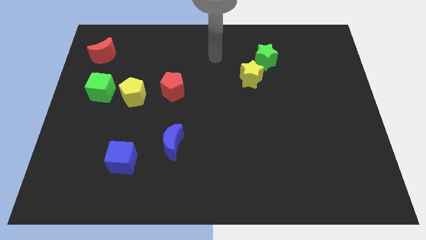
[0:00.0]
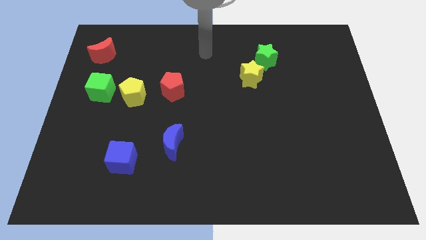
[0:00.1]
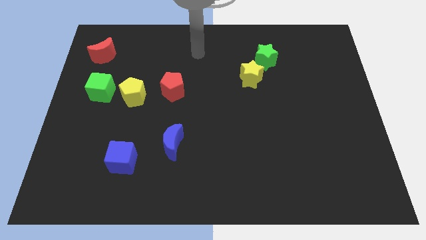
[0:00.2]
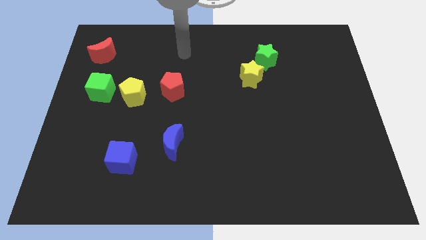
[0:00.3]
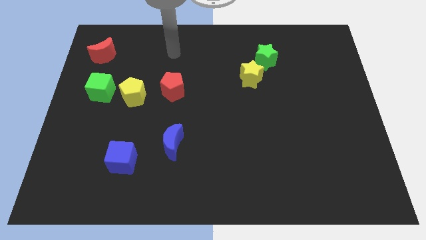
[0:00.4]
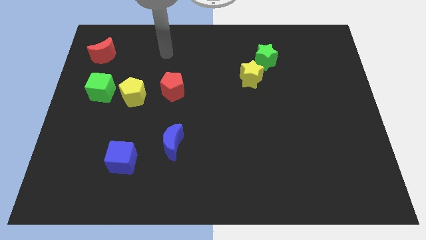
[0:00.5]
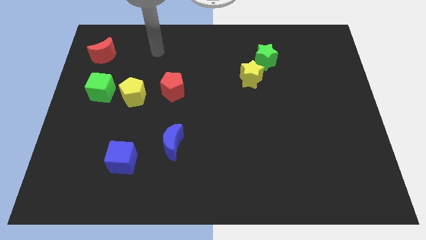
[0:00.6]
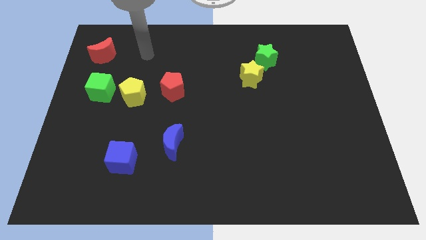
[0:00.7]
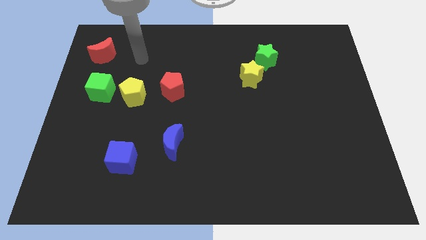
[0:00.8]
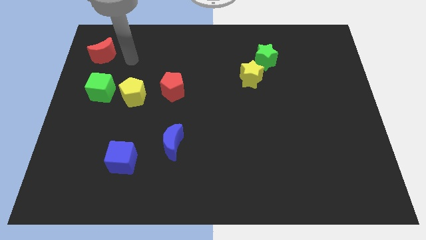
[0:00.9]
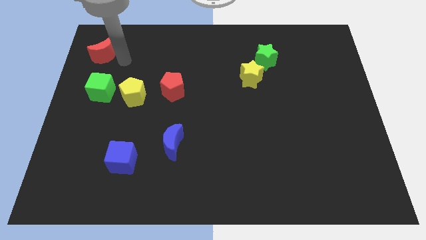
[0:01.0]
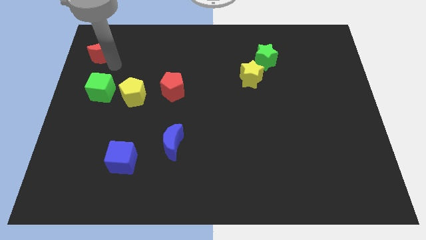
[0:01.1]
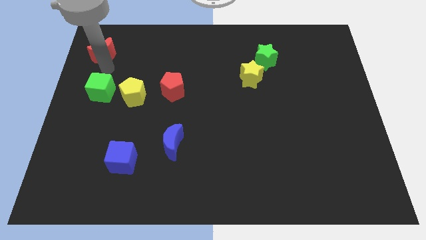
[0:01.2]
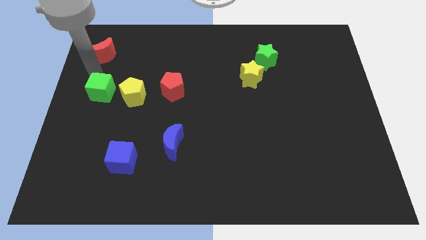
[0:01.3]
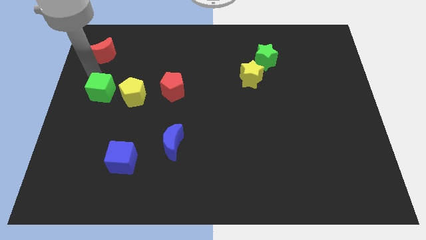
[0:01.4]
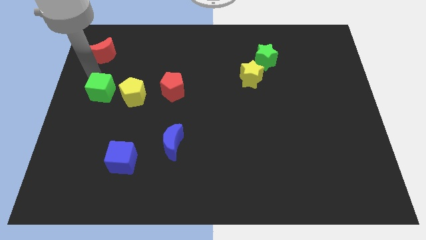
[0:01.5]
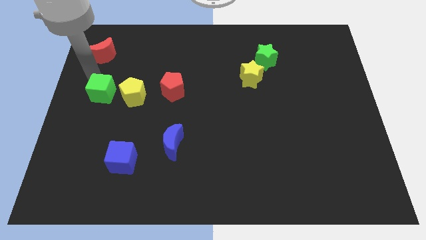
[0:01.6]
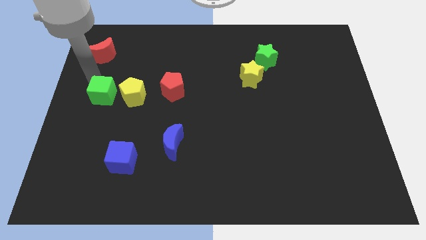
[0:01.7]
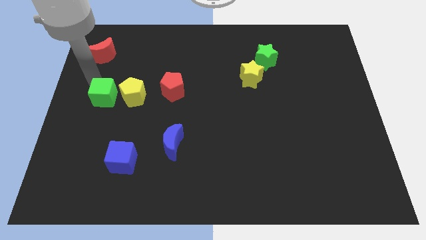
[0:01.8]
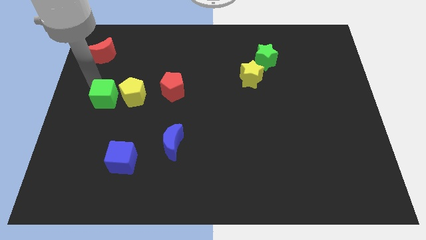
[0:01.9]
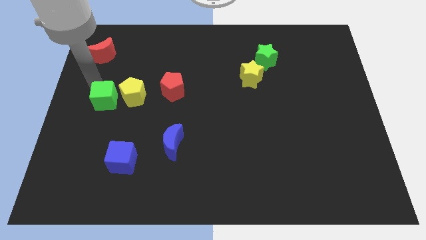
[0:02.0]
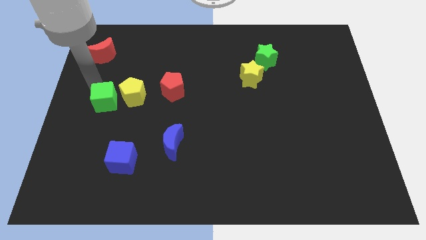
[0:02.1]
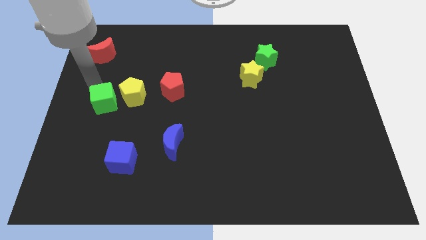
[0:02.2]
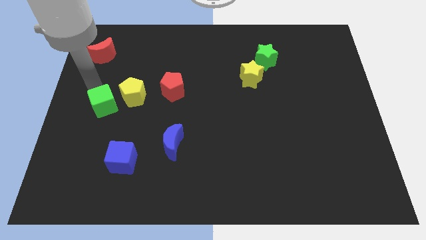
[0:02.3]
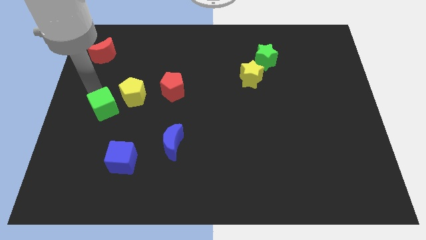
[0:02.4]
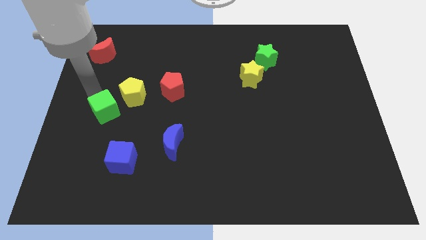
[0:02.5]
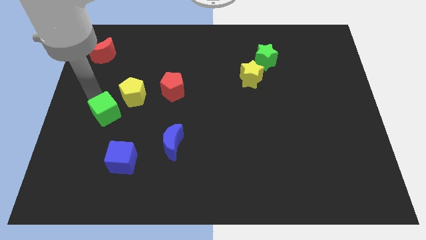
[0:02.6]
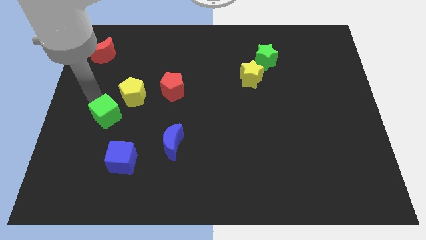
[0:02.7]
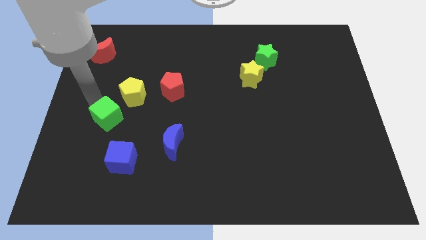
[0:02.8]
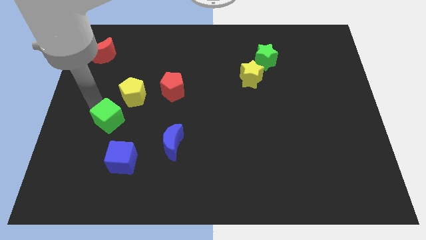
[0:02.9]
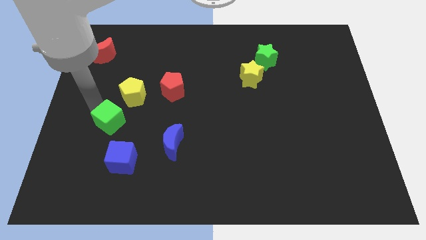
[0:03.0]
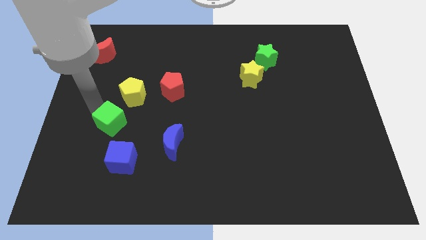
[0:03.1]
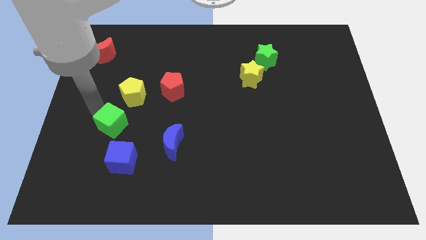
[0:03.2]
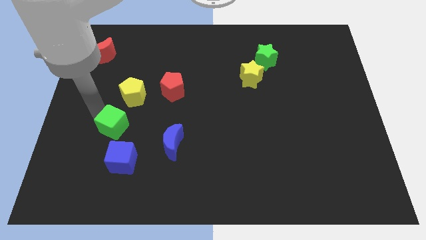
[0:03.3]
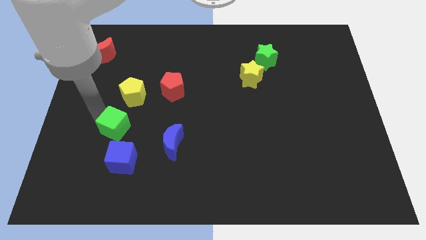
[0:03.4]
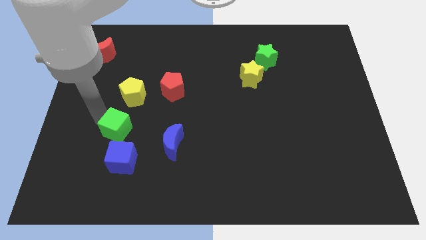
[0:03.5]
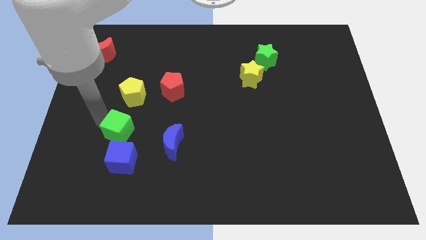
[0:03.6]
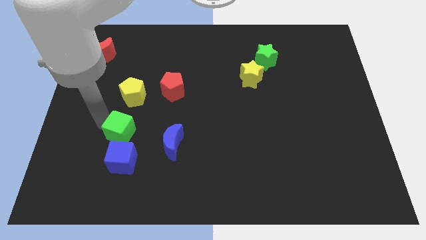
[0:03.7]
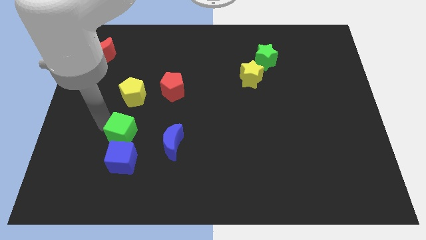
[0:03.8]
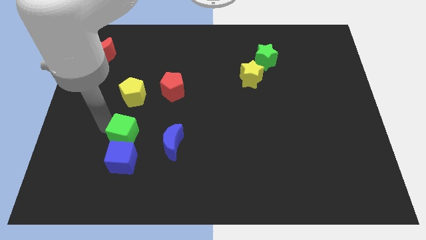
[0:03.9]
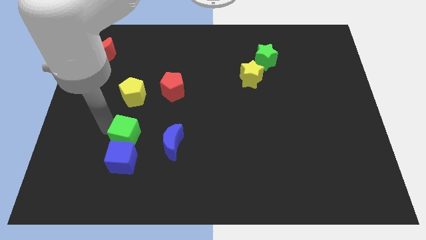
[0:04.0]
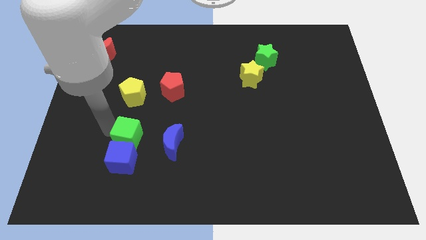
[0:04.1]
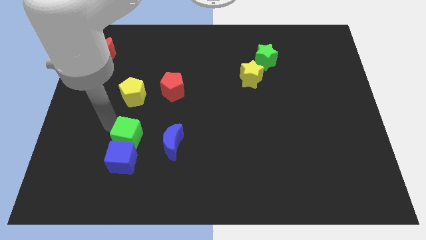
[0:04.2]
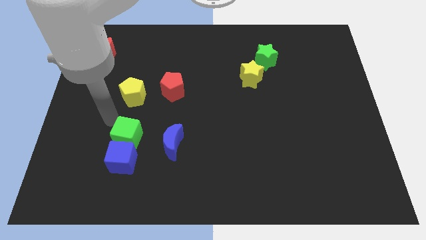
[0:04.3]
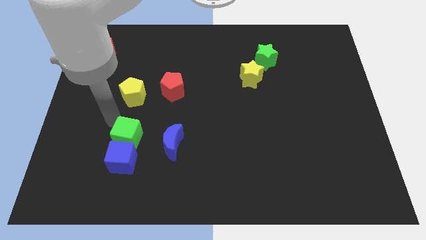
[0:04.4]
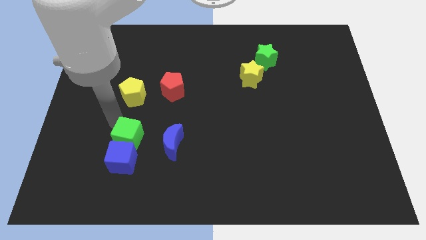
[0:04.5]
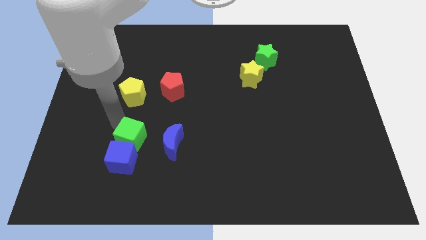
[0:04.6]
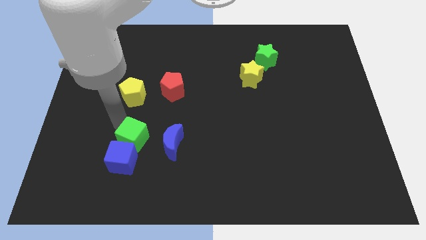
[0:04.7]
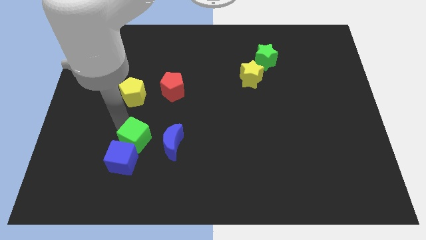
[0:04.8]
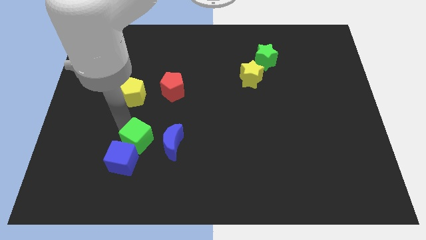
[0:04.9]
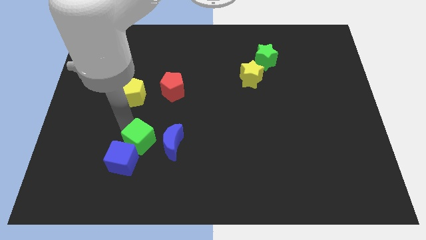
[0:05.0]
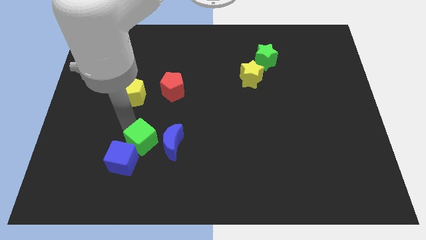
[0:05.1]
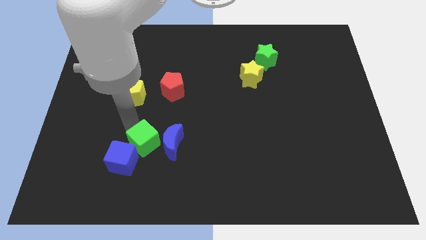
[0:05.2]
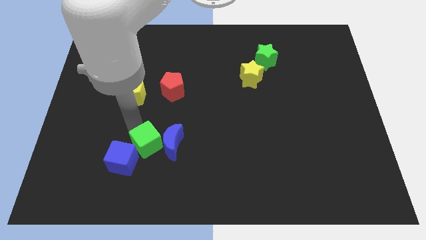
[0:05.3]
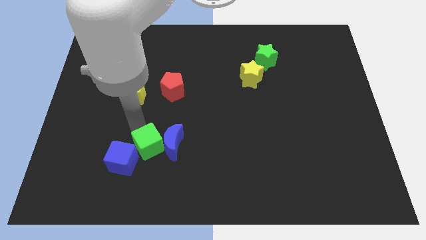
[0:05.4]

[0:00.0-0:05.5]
move the green cube down and to the right diagonally

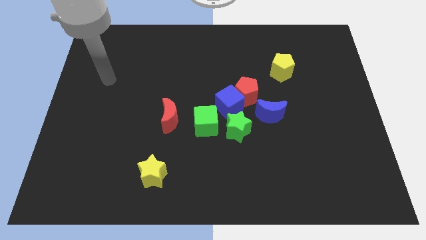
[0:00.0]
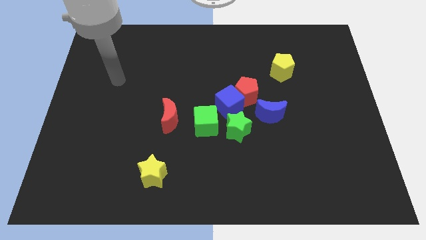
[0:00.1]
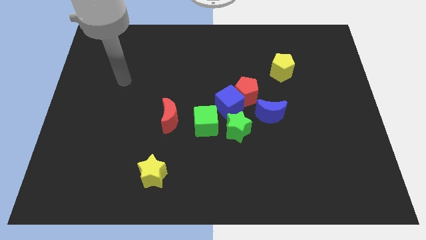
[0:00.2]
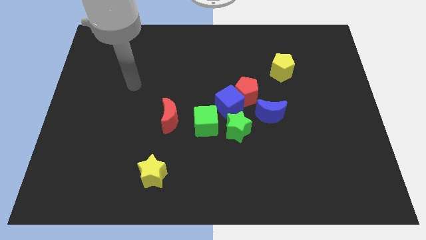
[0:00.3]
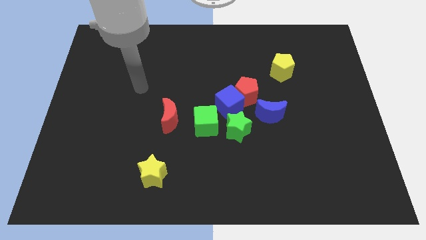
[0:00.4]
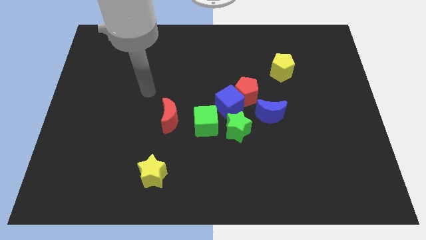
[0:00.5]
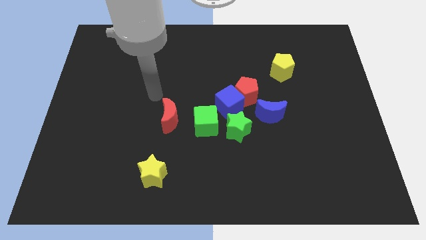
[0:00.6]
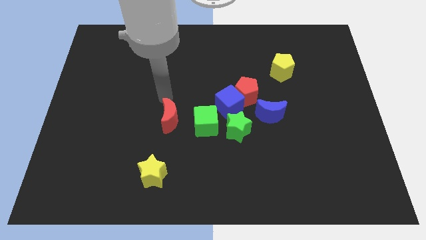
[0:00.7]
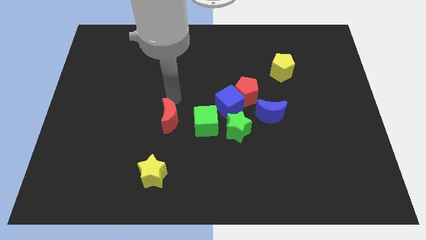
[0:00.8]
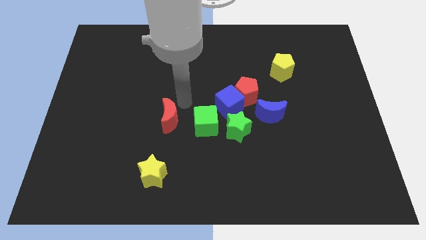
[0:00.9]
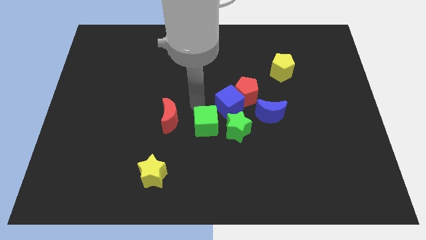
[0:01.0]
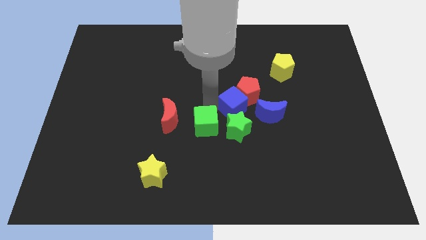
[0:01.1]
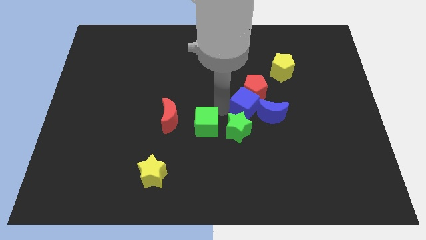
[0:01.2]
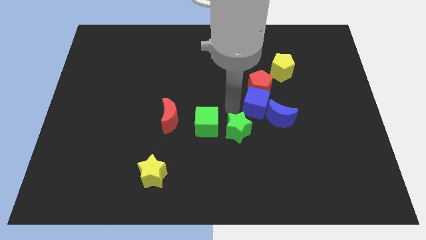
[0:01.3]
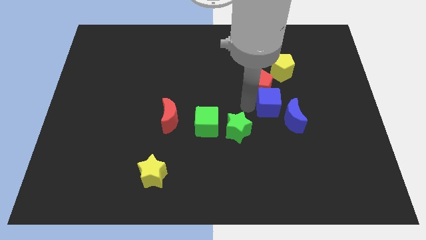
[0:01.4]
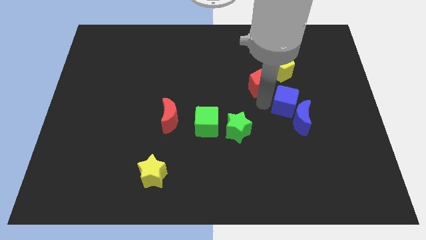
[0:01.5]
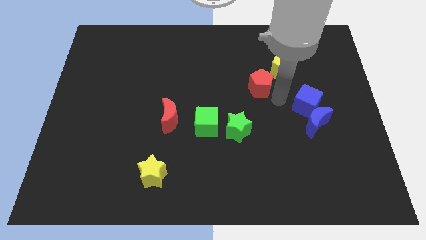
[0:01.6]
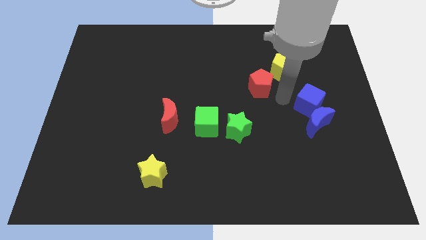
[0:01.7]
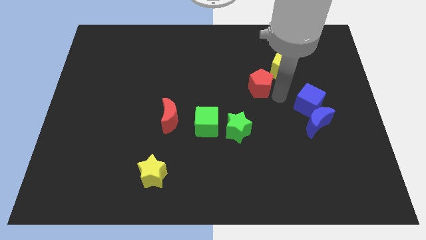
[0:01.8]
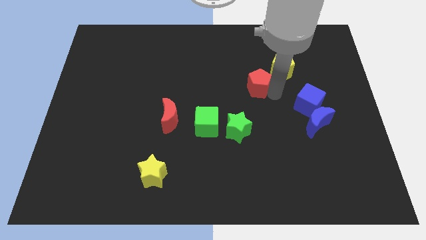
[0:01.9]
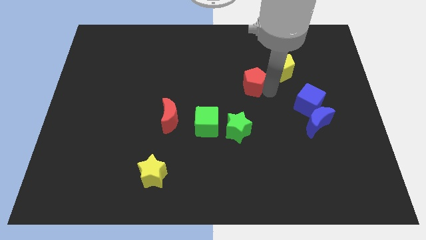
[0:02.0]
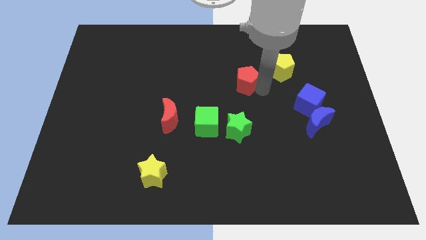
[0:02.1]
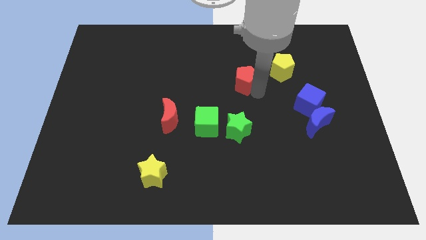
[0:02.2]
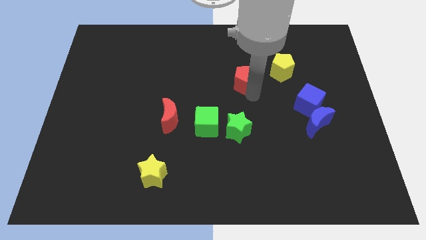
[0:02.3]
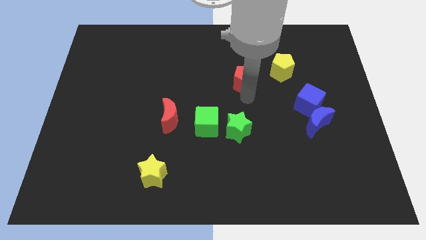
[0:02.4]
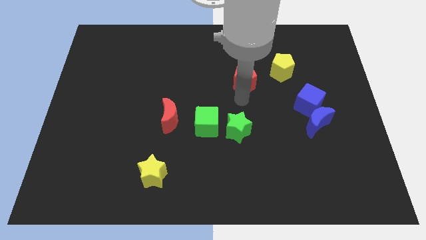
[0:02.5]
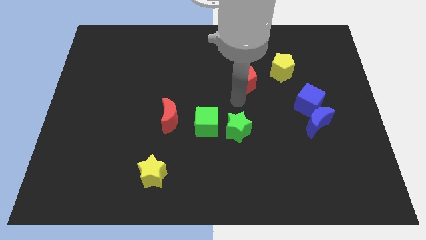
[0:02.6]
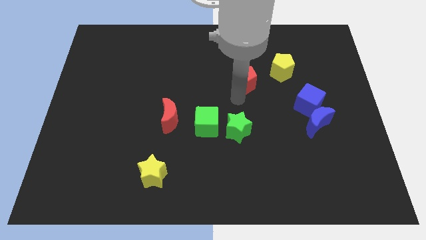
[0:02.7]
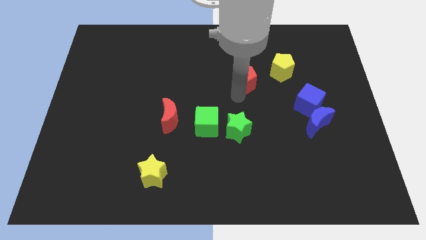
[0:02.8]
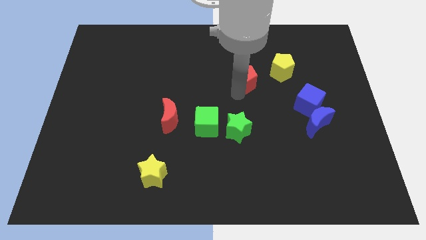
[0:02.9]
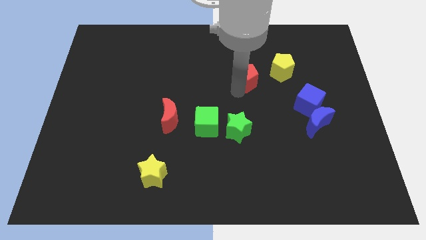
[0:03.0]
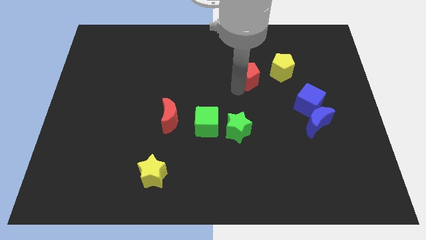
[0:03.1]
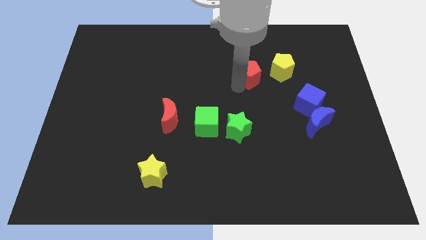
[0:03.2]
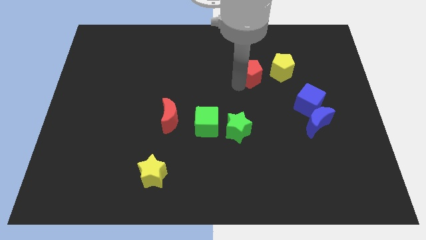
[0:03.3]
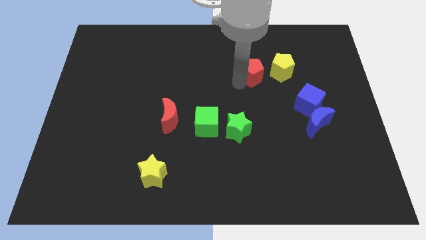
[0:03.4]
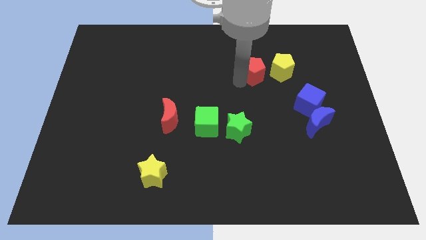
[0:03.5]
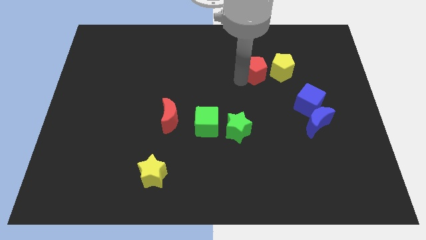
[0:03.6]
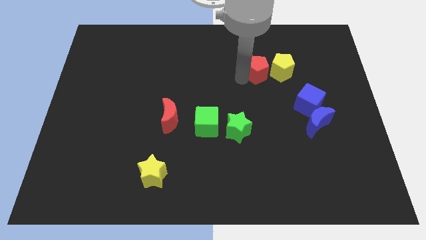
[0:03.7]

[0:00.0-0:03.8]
slightly slide the red pentagon up and then right
